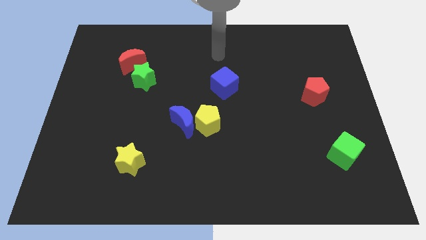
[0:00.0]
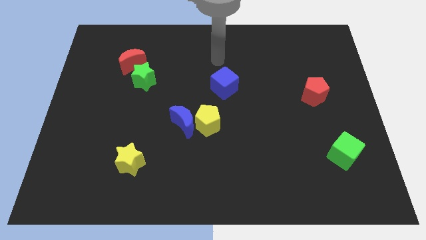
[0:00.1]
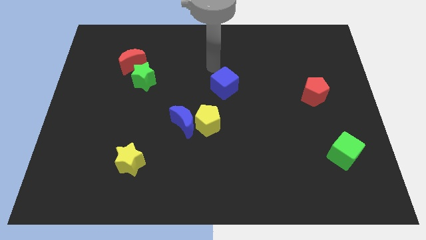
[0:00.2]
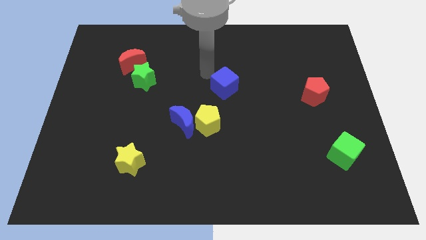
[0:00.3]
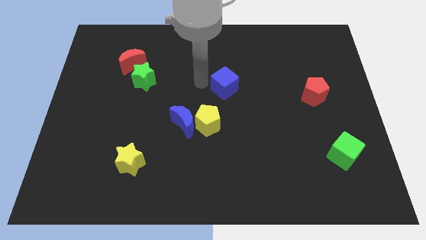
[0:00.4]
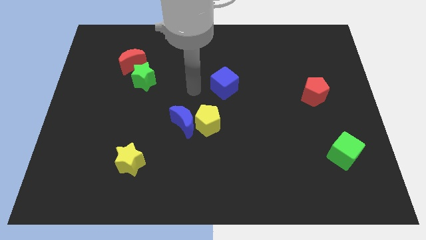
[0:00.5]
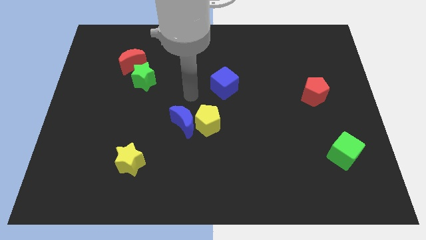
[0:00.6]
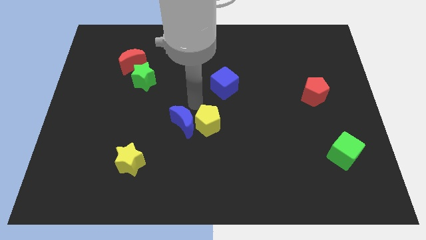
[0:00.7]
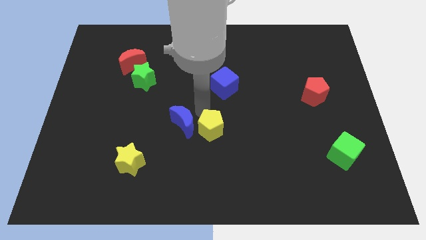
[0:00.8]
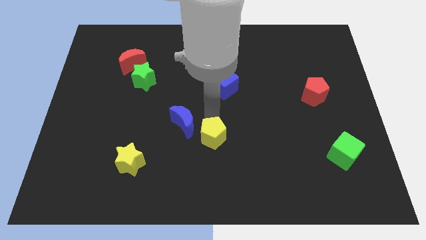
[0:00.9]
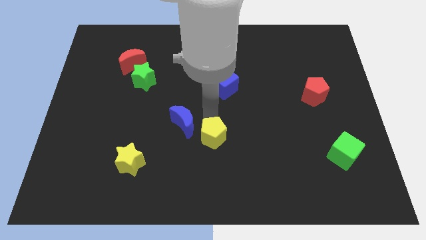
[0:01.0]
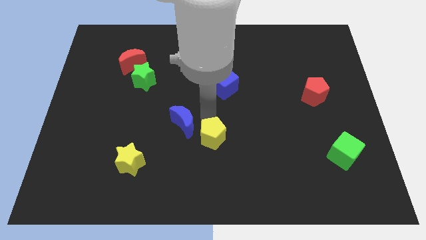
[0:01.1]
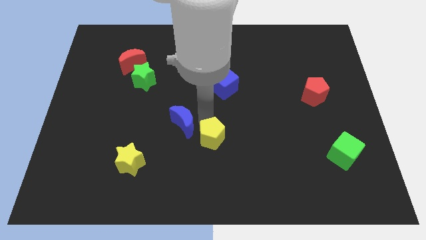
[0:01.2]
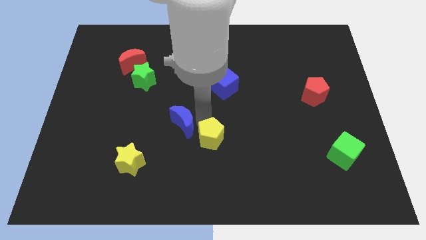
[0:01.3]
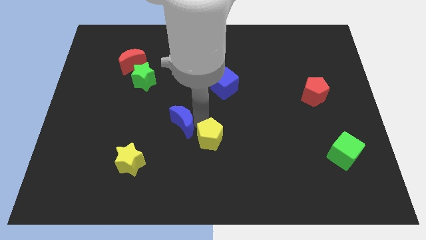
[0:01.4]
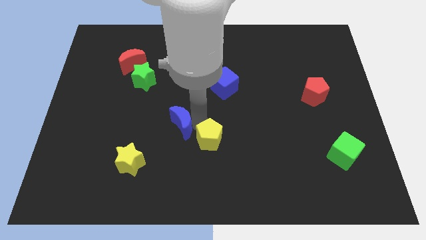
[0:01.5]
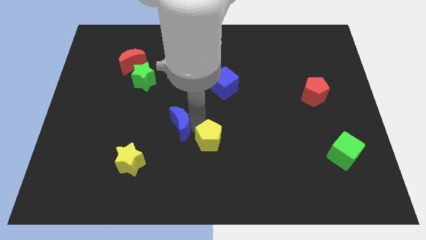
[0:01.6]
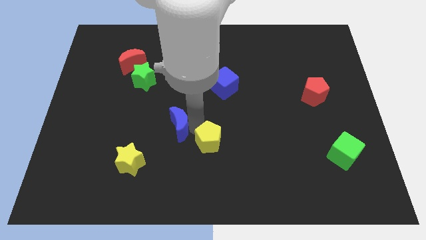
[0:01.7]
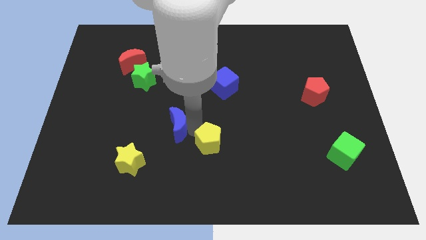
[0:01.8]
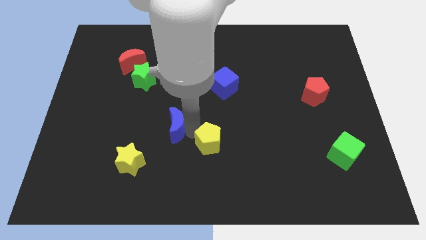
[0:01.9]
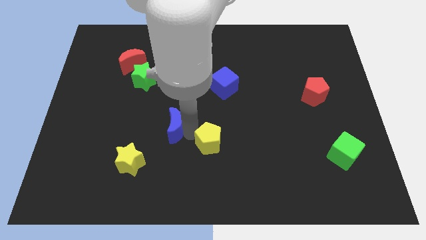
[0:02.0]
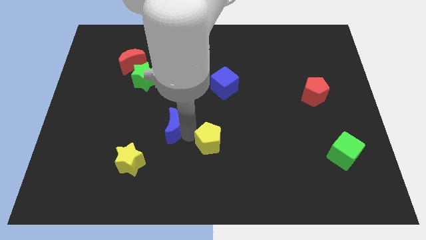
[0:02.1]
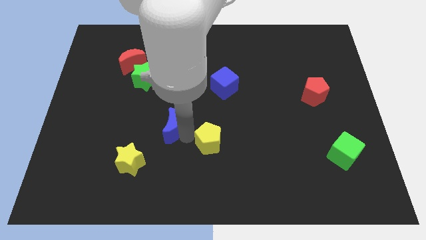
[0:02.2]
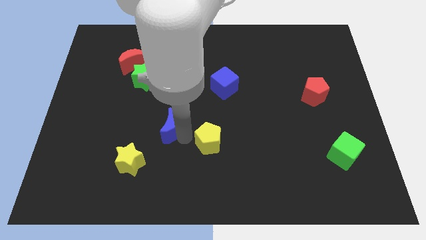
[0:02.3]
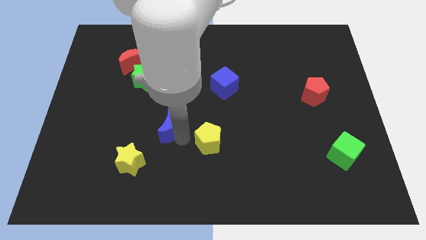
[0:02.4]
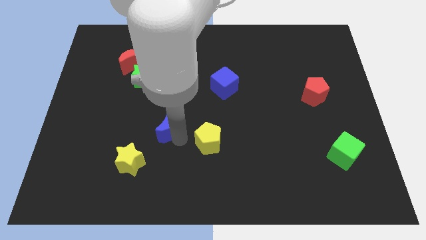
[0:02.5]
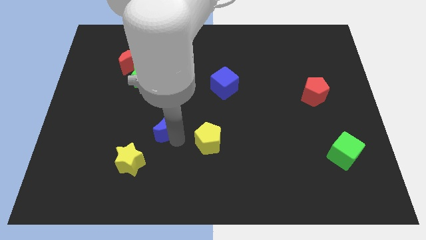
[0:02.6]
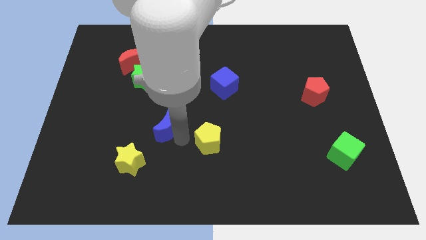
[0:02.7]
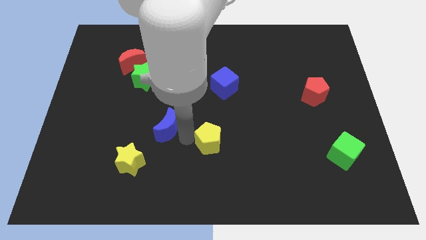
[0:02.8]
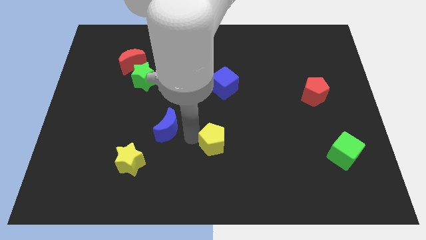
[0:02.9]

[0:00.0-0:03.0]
move the blue moon away from the yellow pentagon

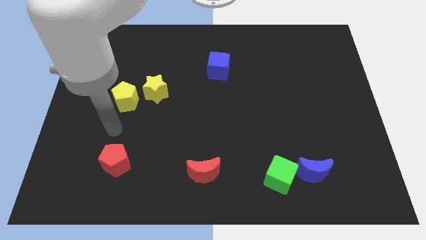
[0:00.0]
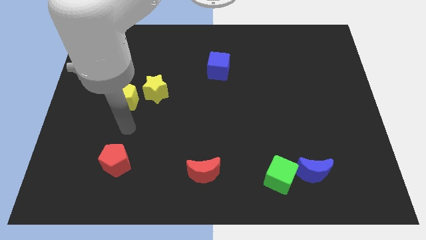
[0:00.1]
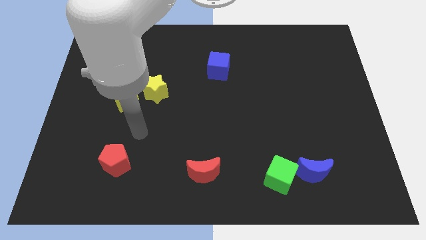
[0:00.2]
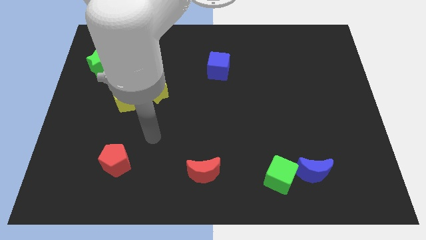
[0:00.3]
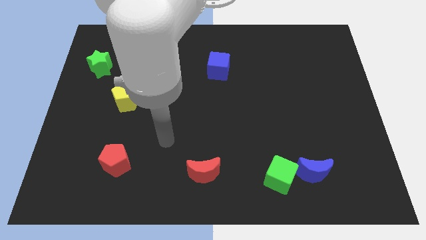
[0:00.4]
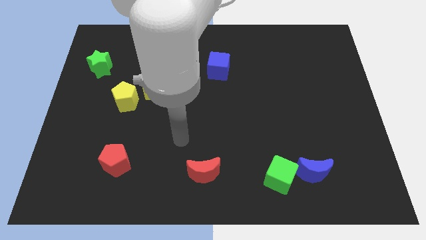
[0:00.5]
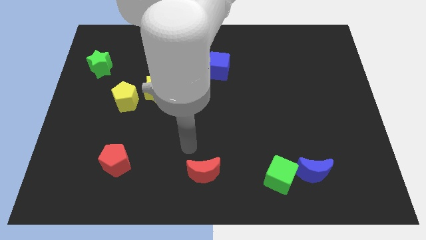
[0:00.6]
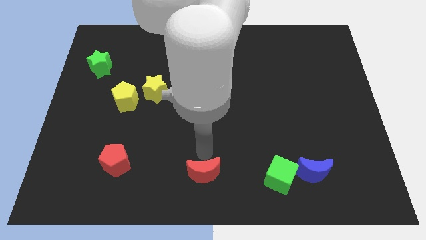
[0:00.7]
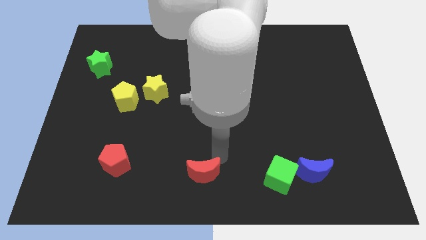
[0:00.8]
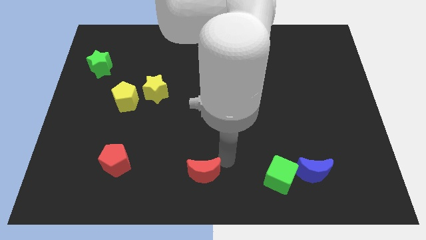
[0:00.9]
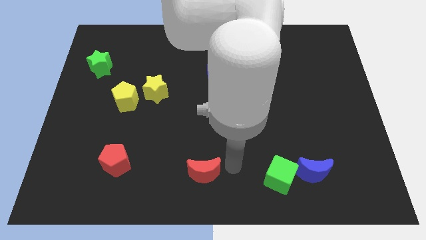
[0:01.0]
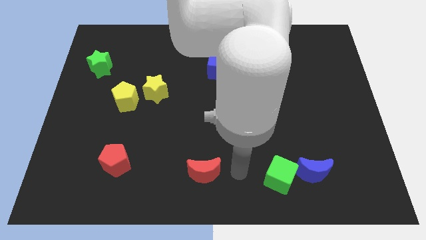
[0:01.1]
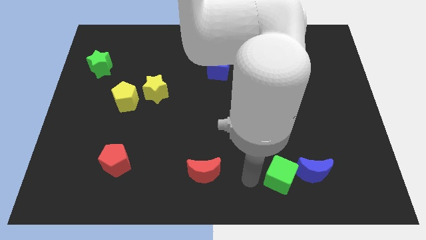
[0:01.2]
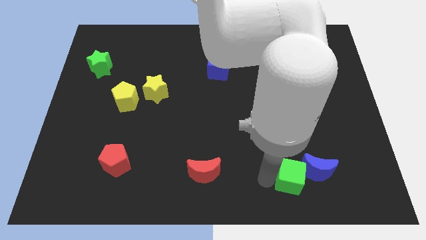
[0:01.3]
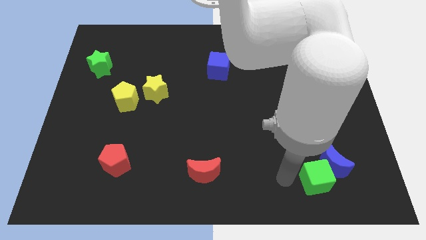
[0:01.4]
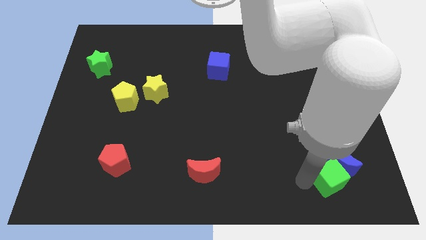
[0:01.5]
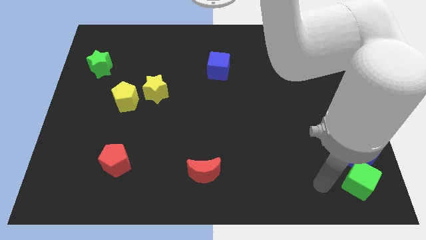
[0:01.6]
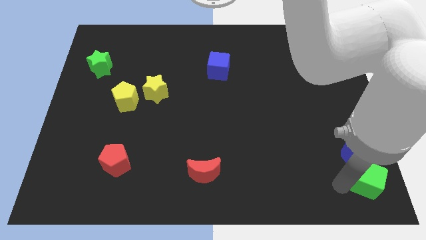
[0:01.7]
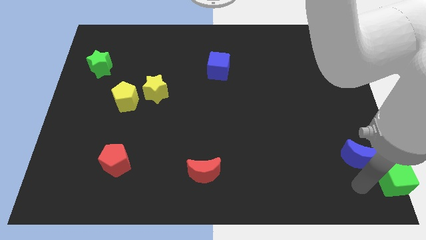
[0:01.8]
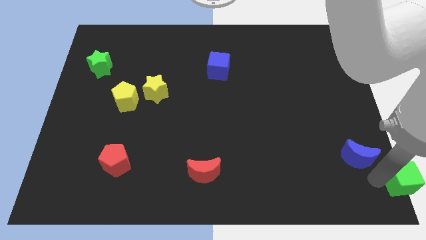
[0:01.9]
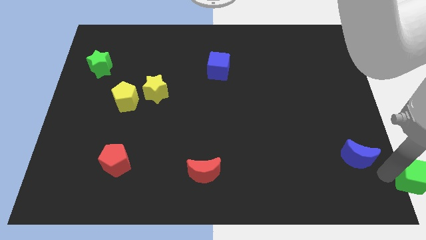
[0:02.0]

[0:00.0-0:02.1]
move the blue moon away from the green cube

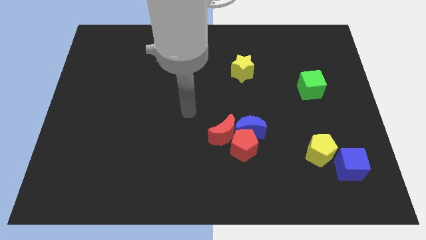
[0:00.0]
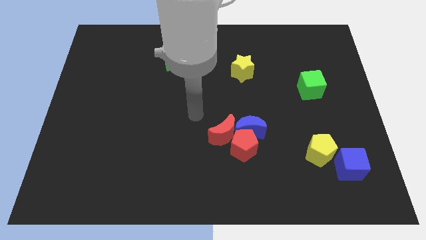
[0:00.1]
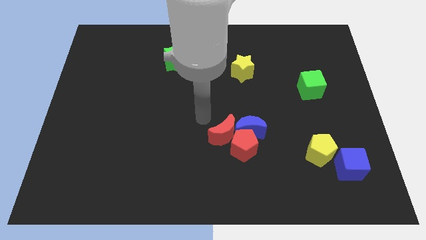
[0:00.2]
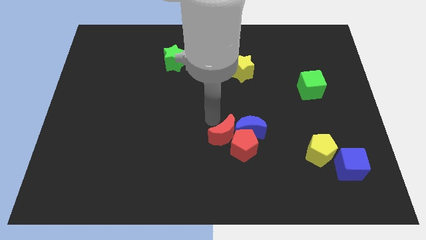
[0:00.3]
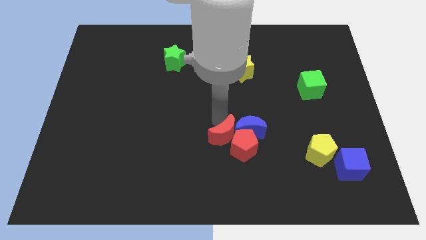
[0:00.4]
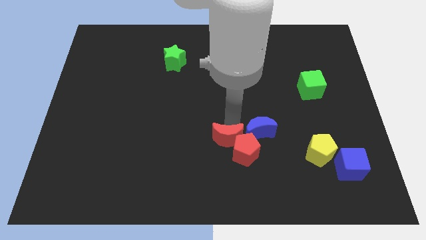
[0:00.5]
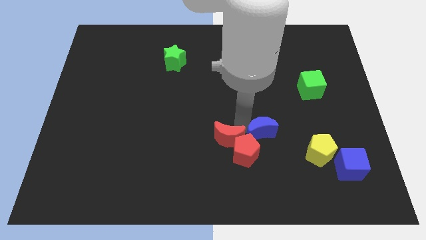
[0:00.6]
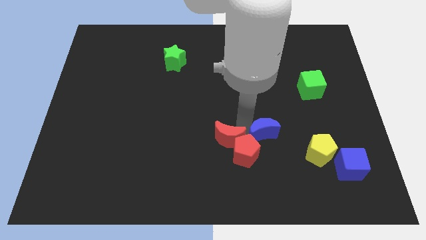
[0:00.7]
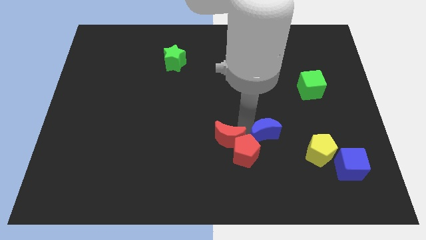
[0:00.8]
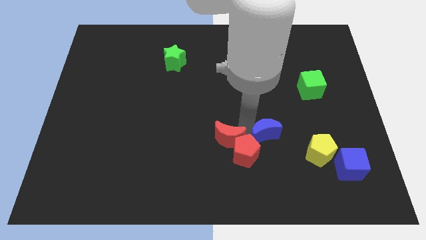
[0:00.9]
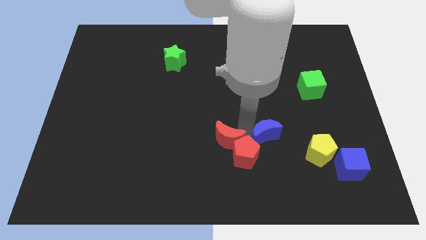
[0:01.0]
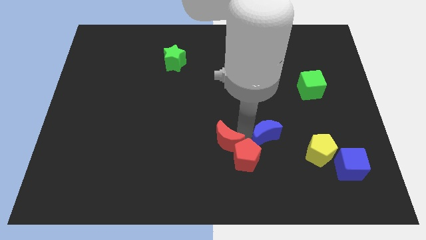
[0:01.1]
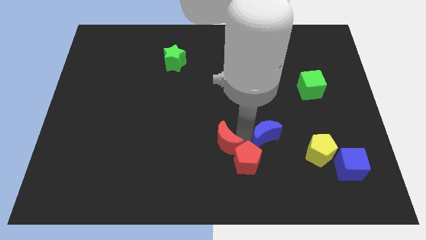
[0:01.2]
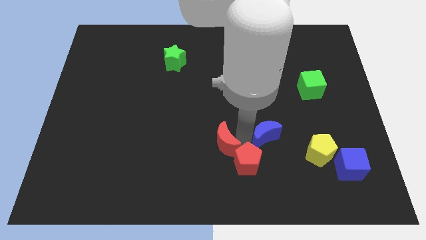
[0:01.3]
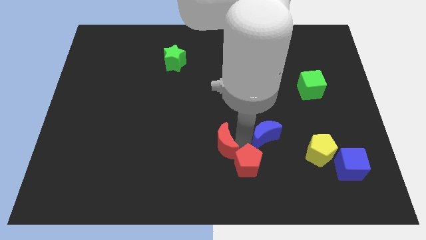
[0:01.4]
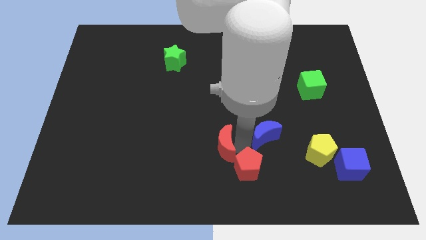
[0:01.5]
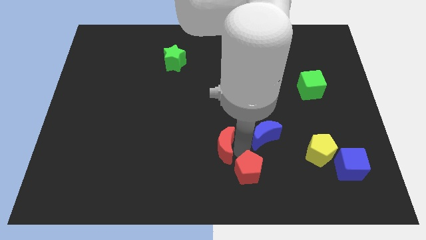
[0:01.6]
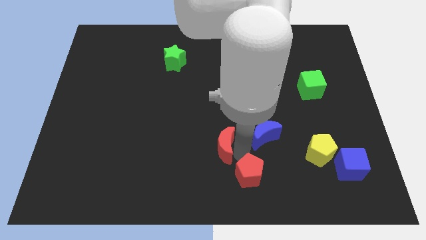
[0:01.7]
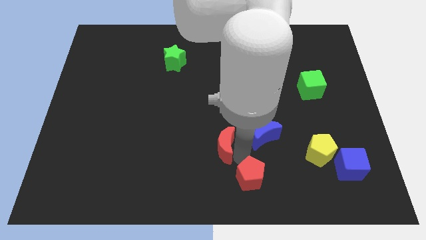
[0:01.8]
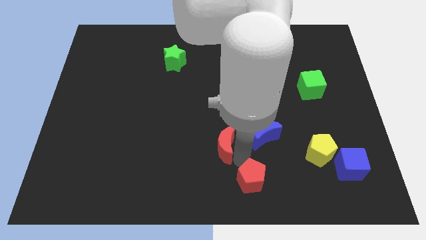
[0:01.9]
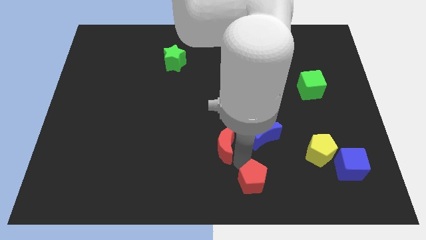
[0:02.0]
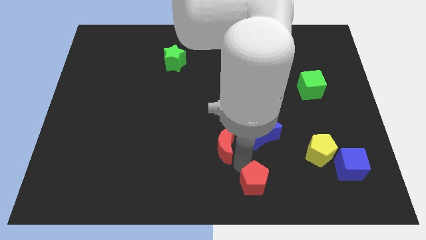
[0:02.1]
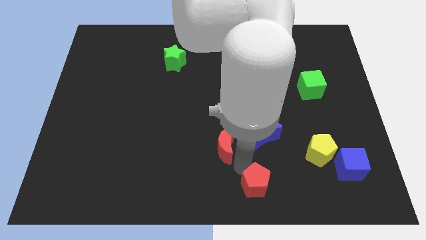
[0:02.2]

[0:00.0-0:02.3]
move the red pentagon away from the blue moon and red moon

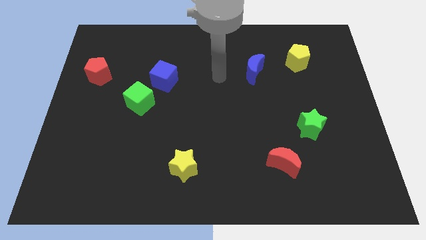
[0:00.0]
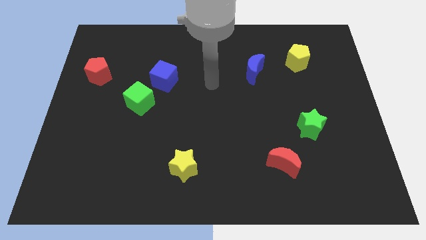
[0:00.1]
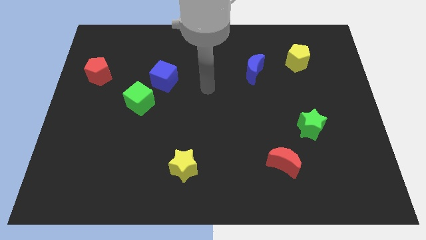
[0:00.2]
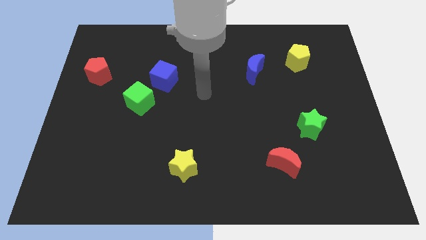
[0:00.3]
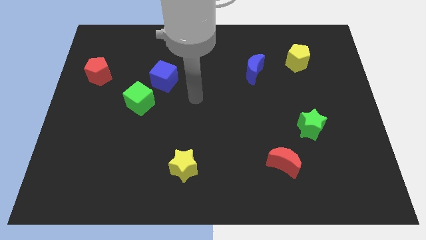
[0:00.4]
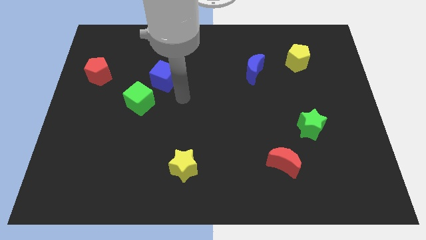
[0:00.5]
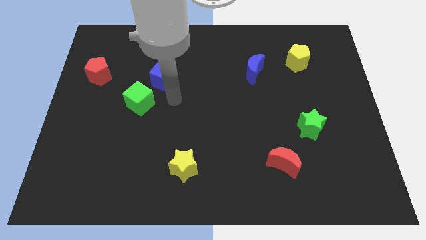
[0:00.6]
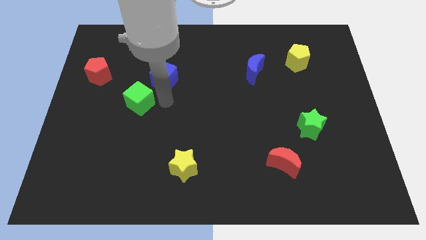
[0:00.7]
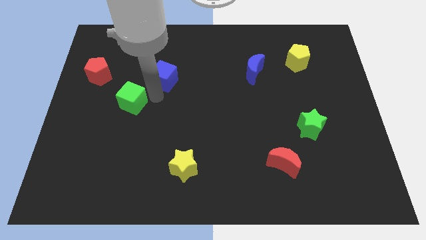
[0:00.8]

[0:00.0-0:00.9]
pull the blue cube apart from the green cube

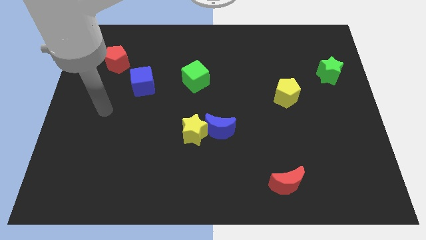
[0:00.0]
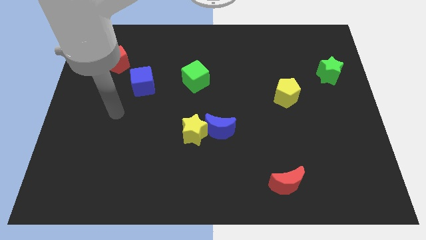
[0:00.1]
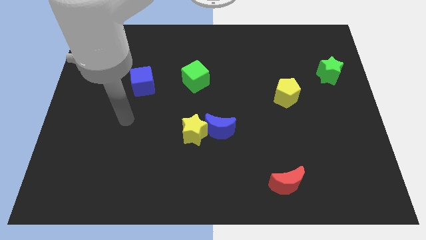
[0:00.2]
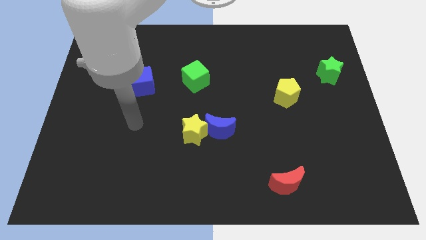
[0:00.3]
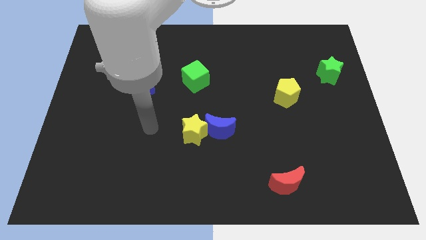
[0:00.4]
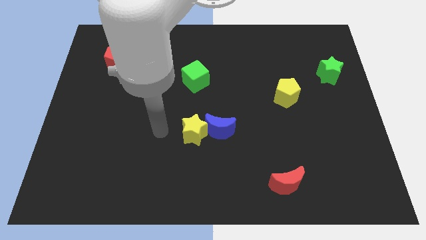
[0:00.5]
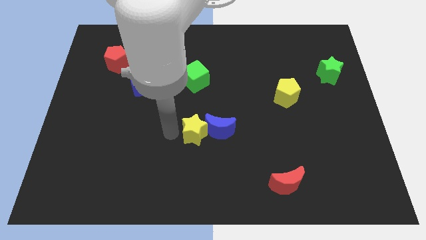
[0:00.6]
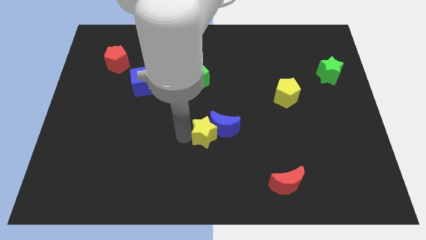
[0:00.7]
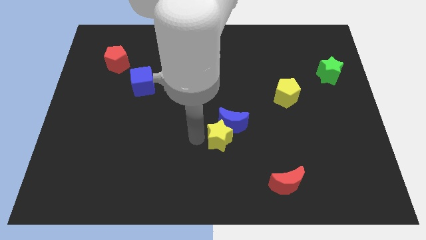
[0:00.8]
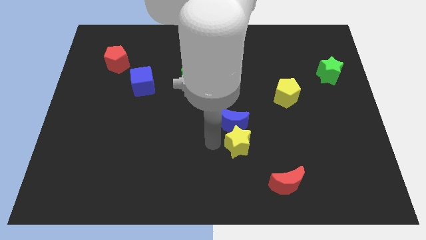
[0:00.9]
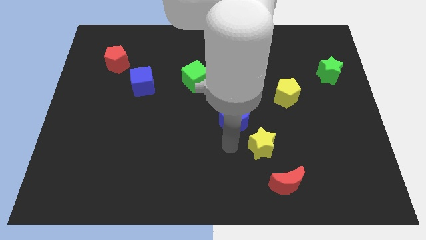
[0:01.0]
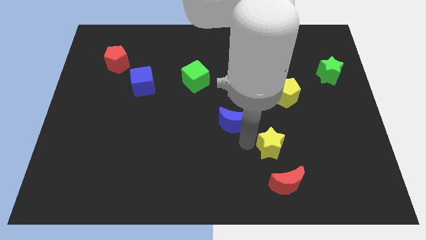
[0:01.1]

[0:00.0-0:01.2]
separate the blue moon from the yellow star
